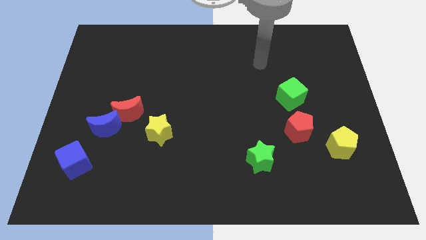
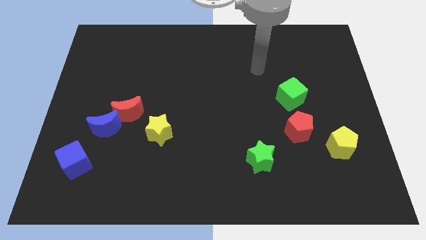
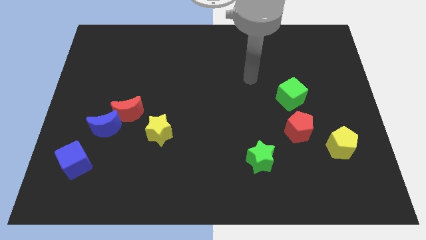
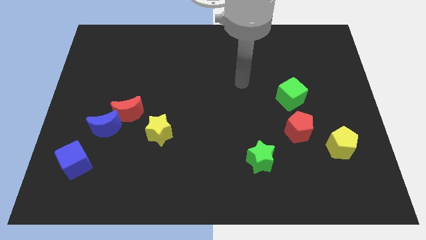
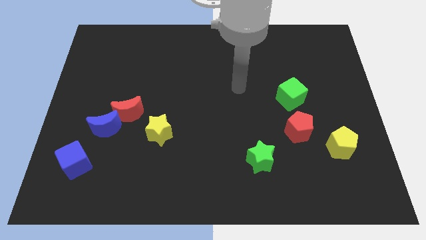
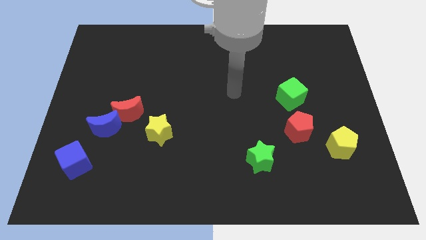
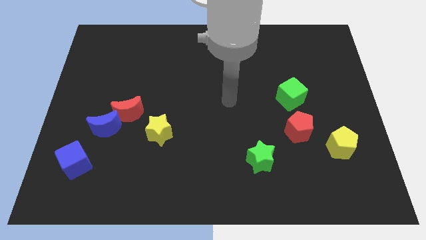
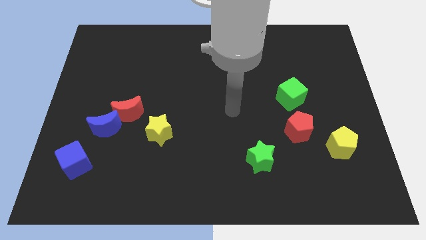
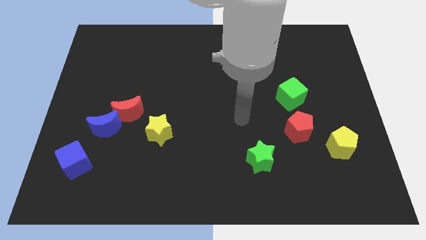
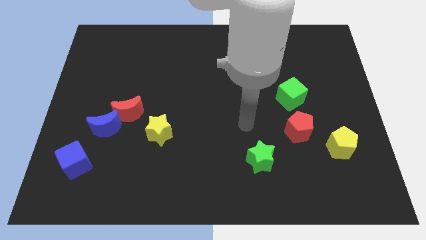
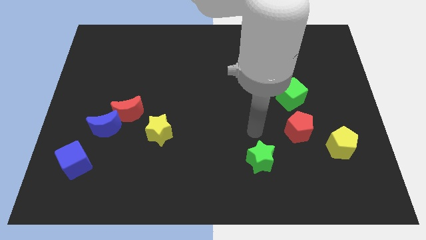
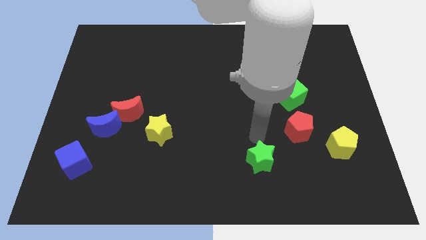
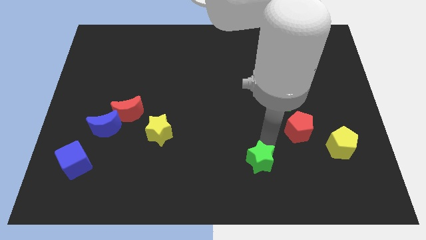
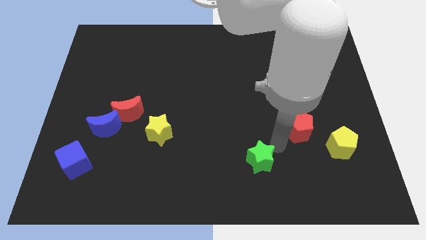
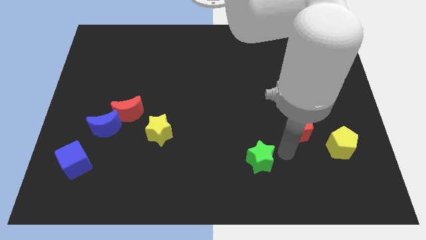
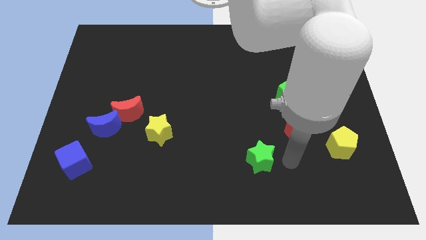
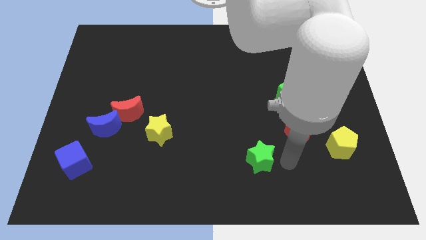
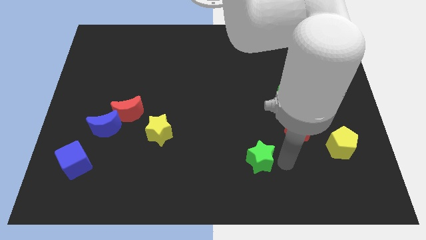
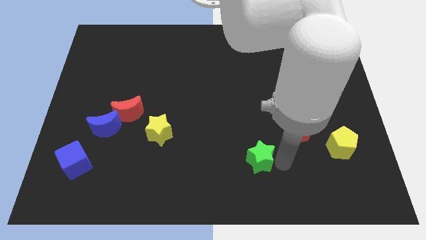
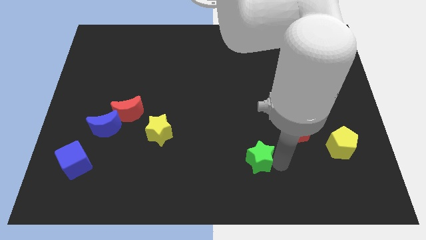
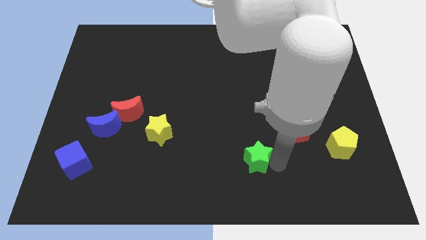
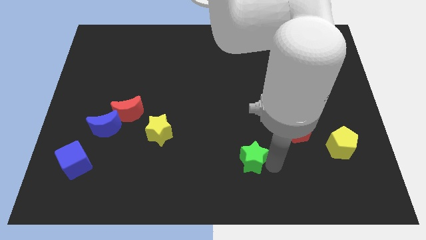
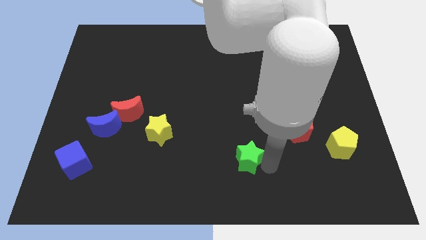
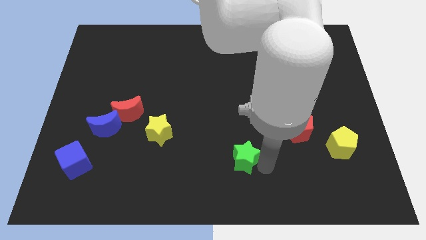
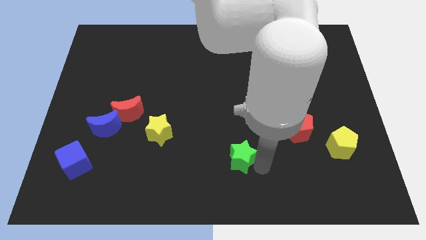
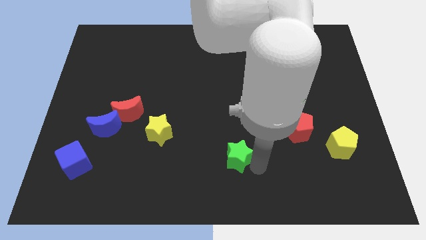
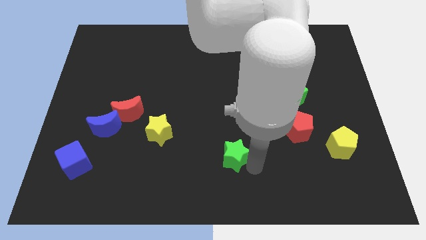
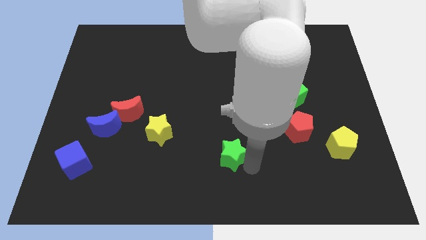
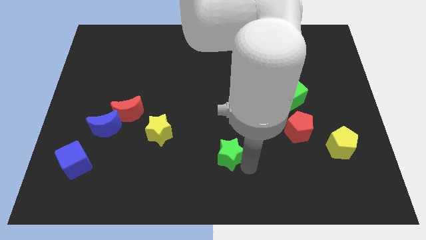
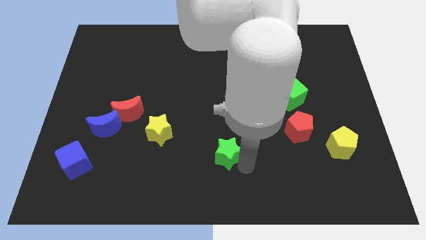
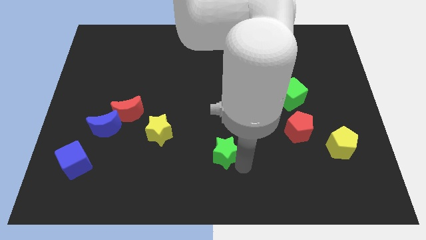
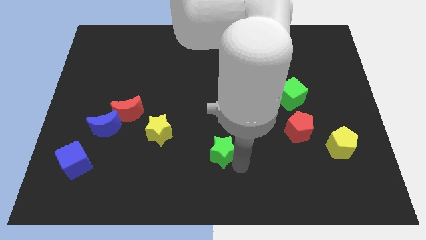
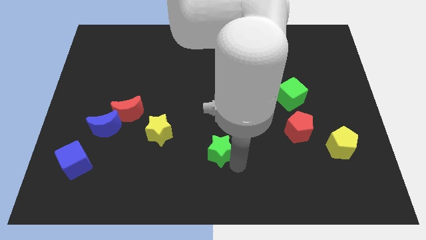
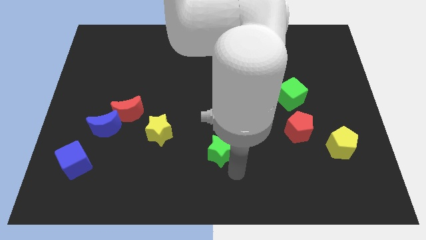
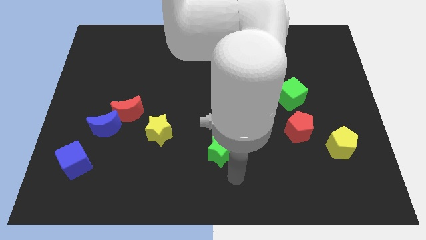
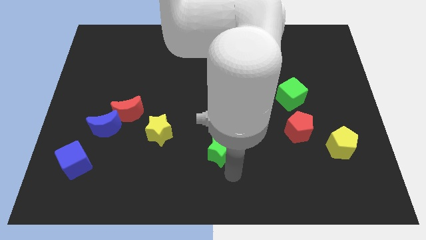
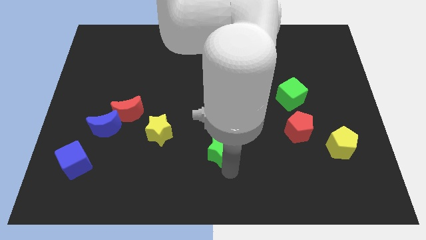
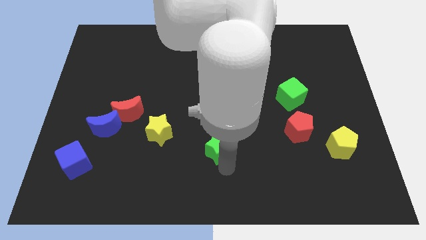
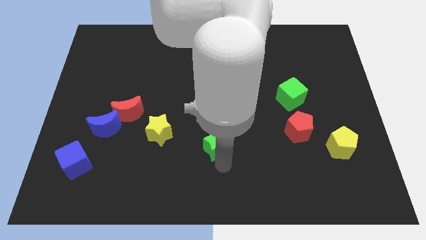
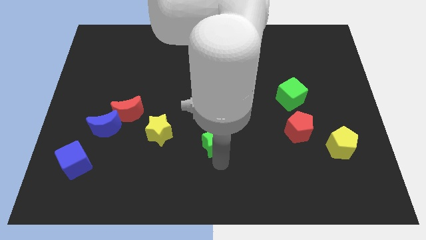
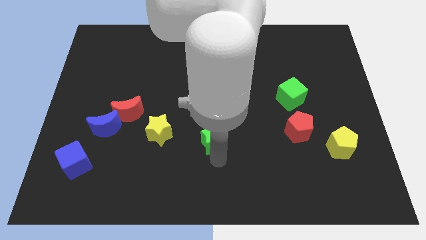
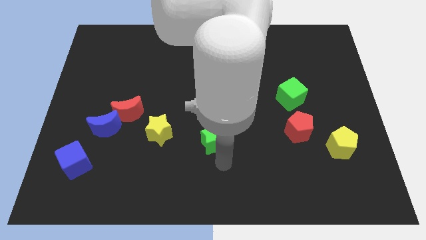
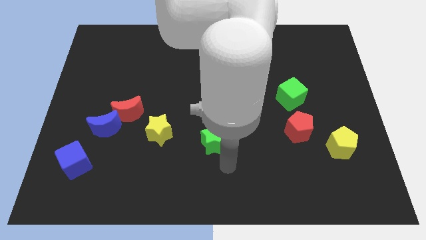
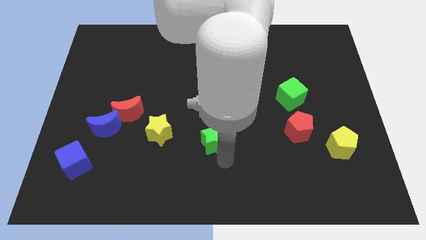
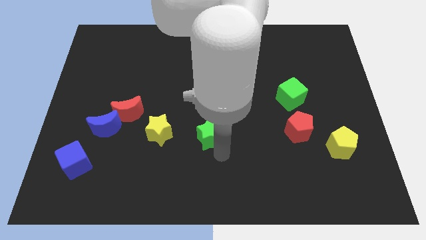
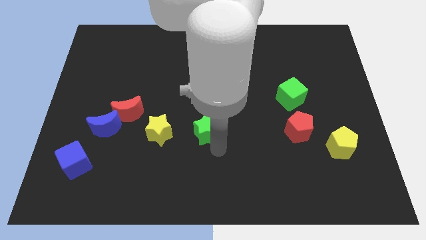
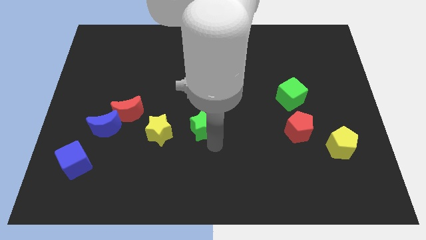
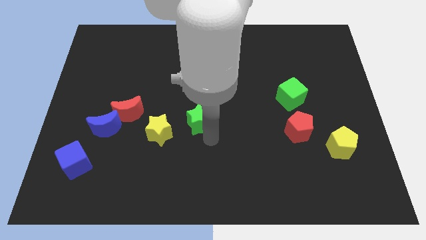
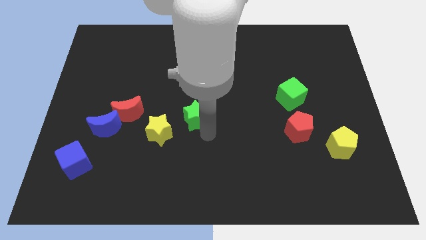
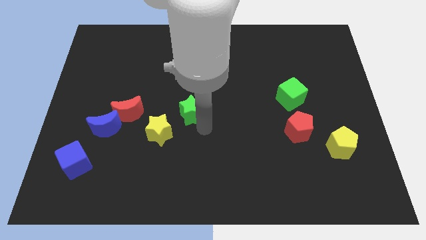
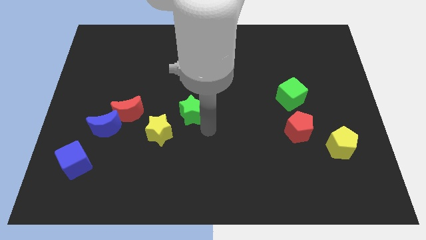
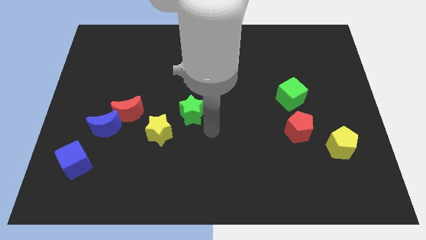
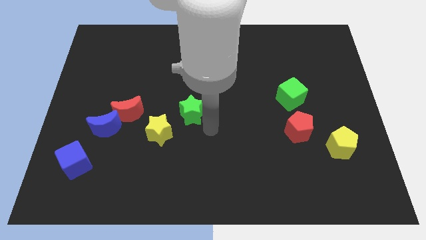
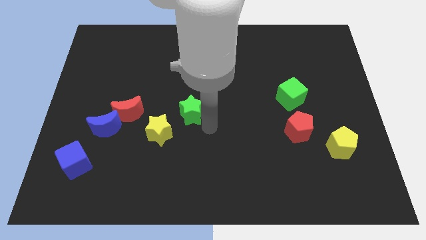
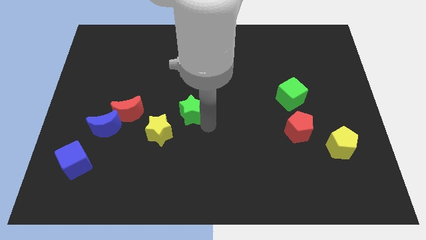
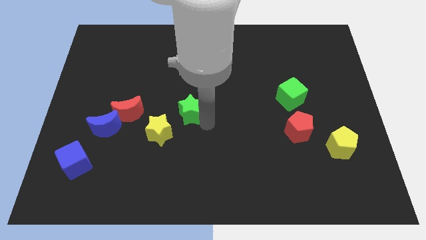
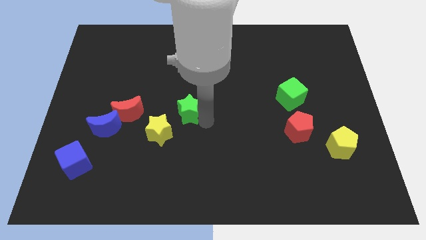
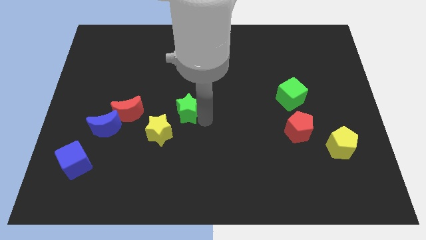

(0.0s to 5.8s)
push the green star diagonally upwards and to the left

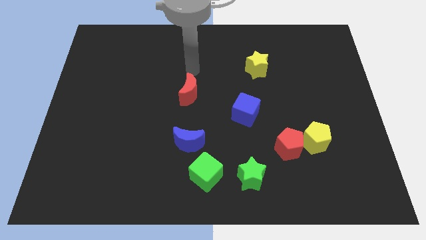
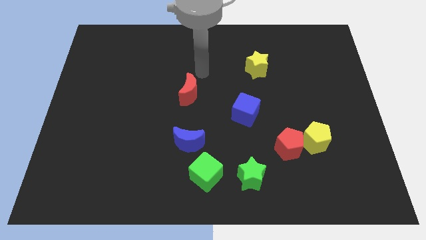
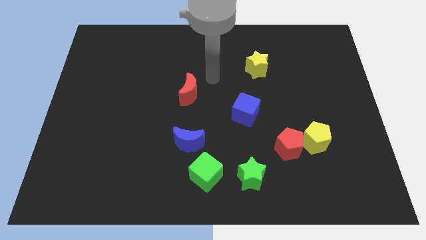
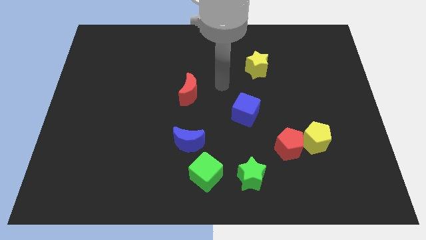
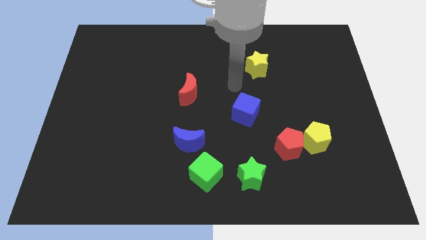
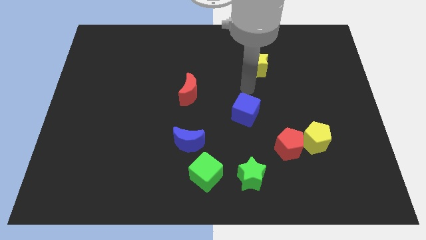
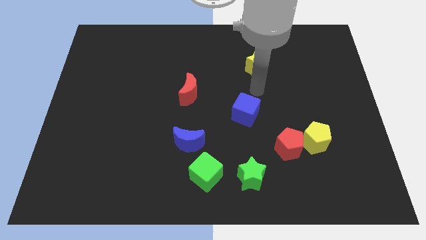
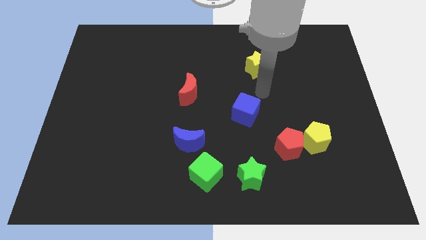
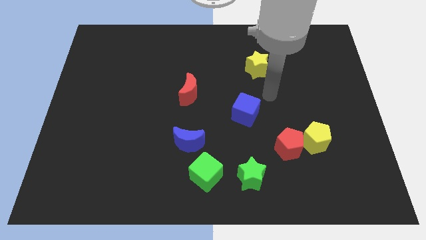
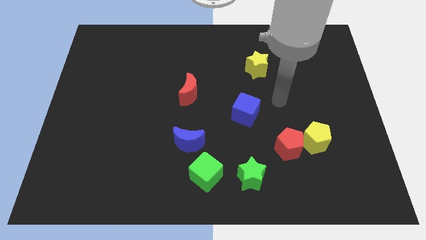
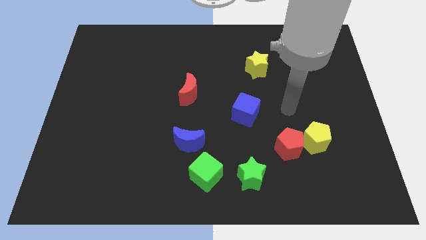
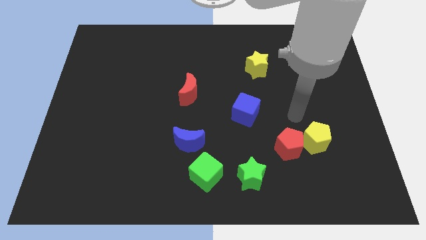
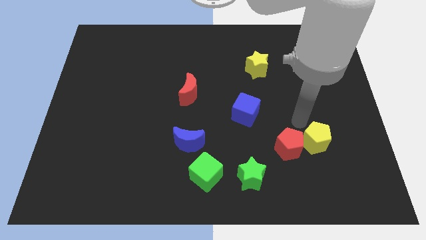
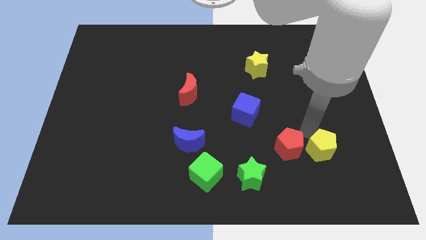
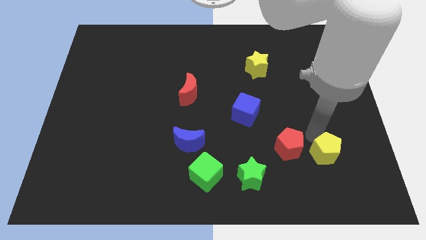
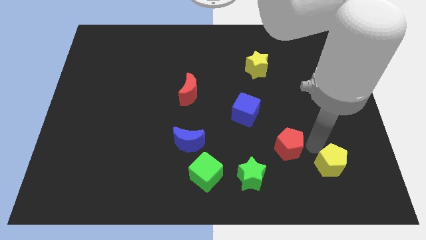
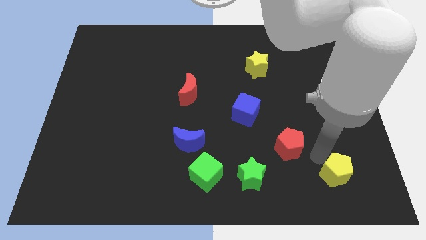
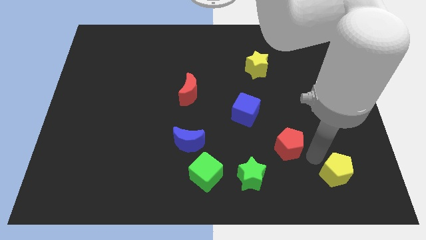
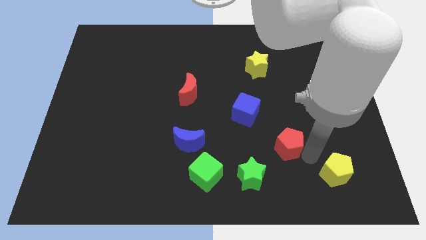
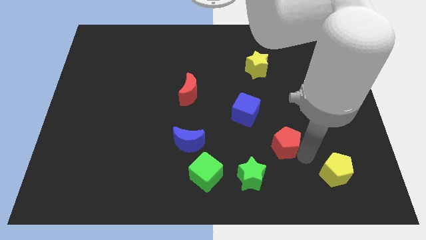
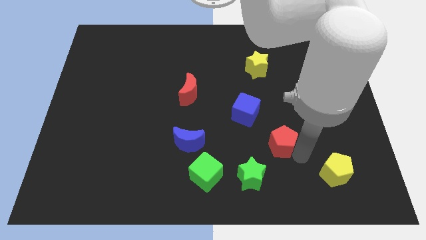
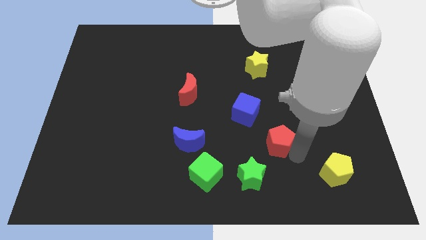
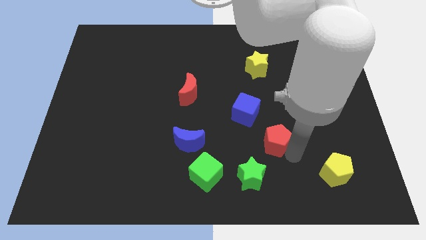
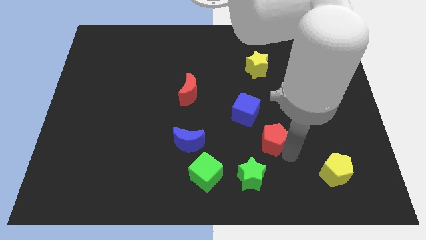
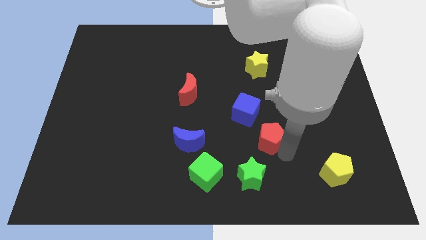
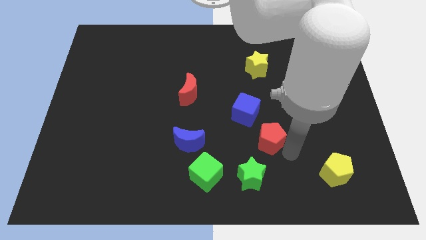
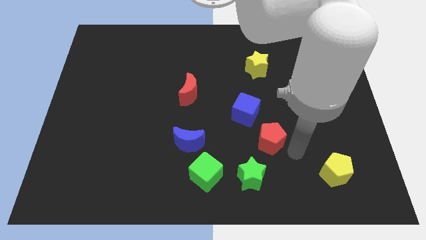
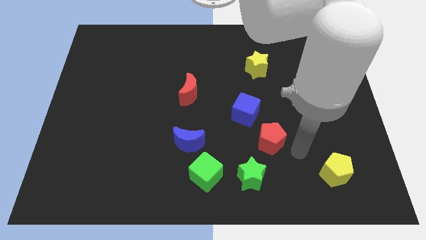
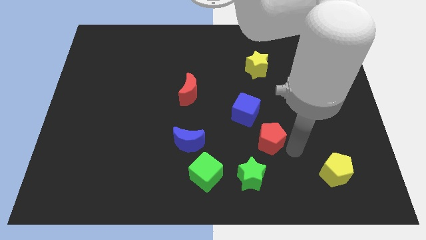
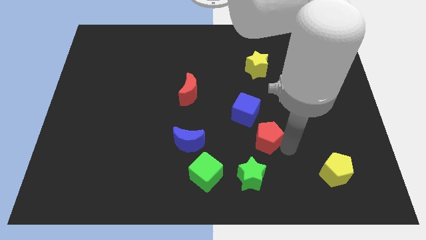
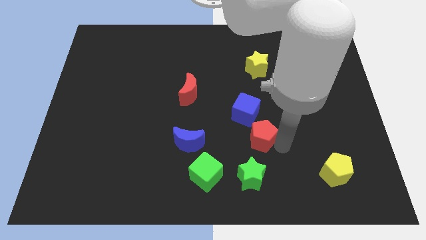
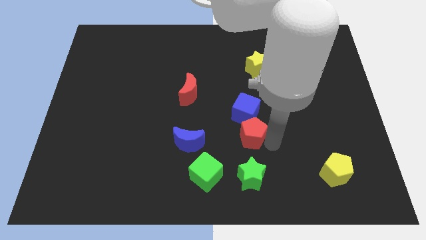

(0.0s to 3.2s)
slightly slide the red pentagon up and left diagonally
